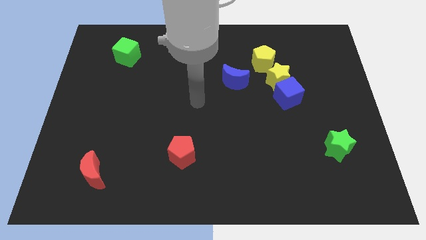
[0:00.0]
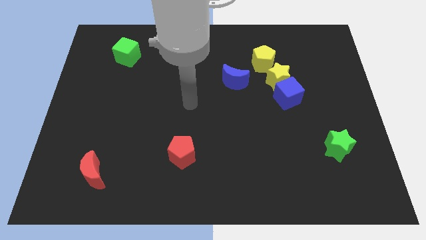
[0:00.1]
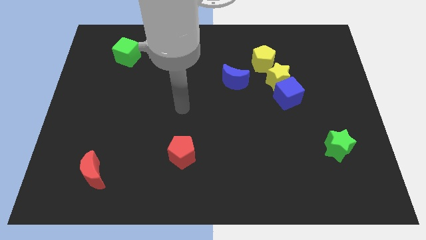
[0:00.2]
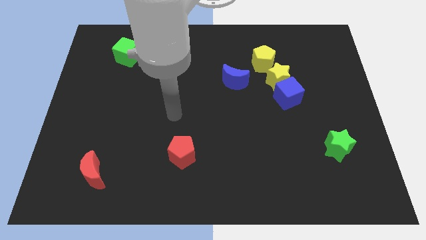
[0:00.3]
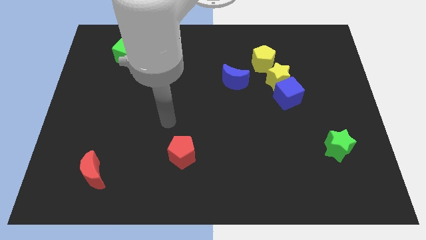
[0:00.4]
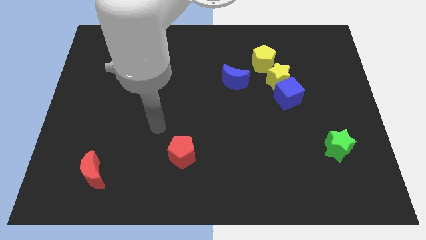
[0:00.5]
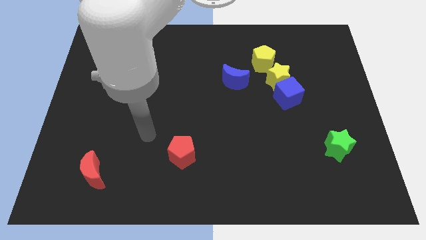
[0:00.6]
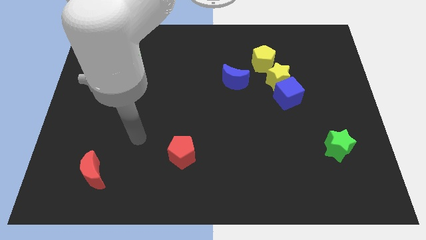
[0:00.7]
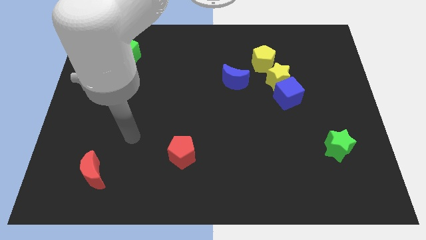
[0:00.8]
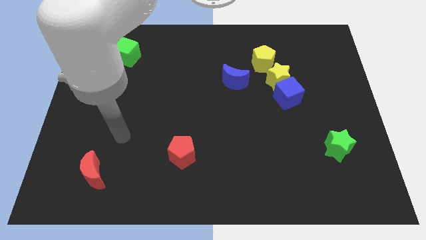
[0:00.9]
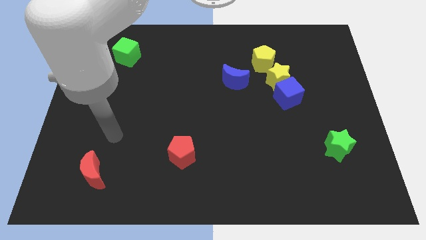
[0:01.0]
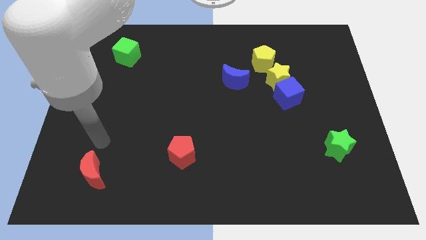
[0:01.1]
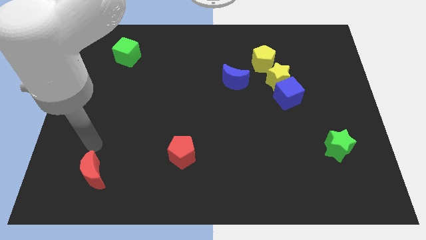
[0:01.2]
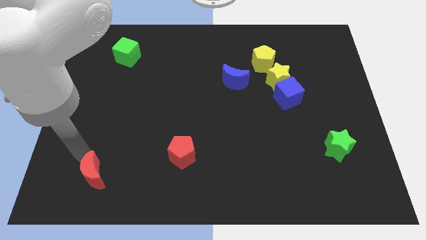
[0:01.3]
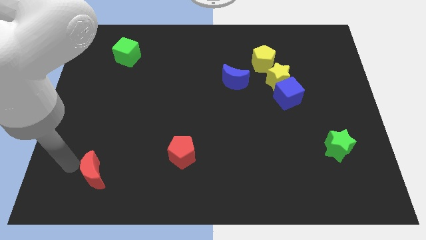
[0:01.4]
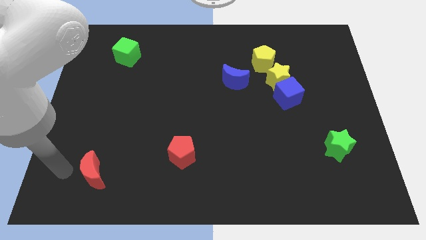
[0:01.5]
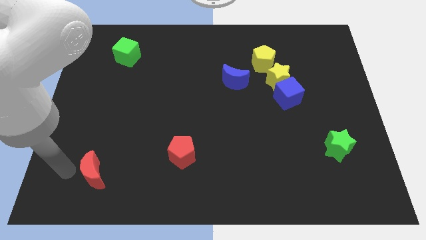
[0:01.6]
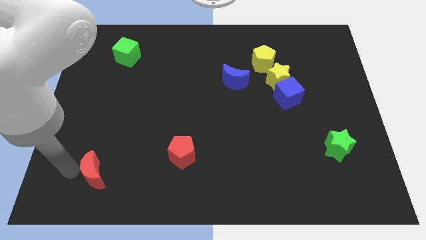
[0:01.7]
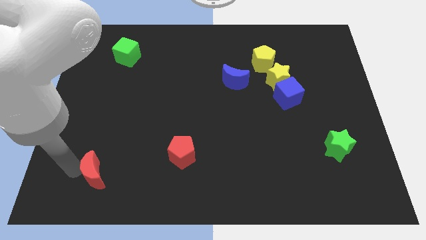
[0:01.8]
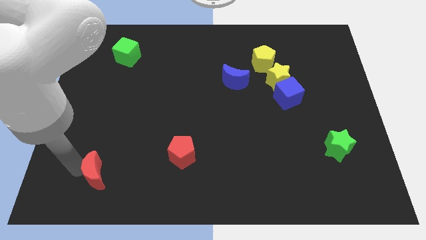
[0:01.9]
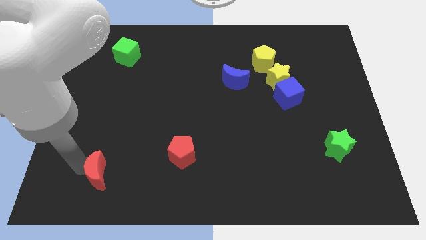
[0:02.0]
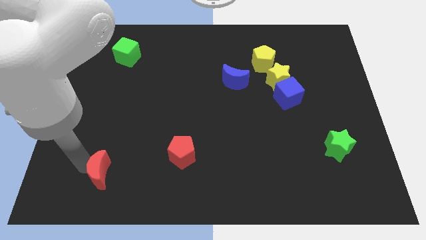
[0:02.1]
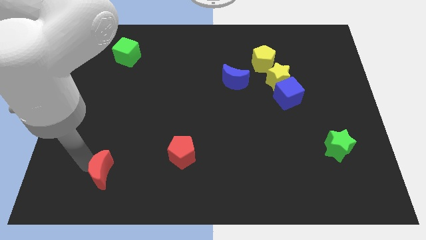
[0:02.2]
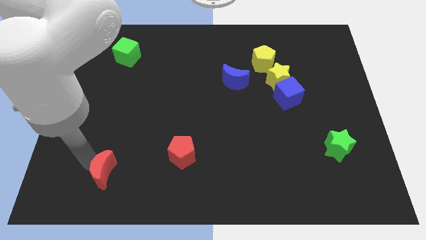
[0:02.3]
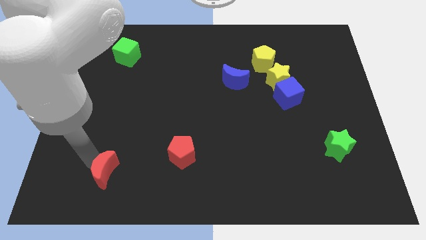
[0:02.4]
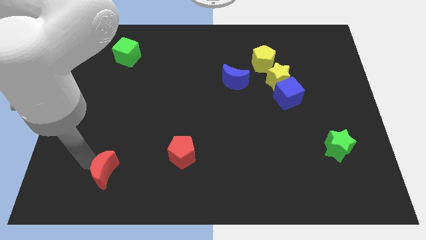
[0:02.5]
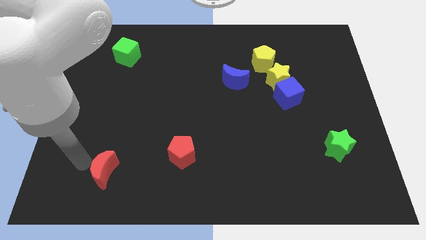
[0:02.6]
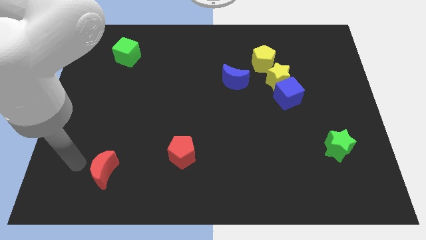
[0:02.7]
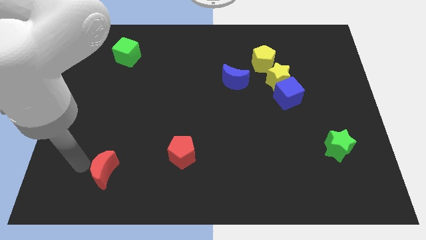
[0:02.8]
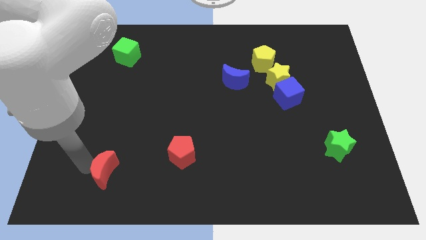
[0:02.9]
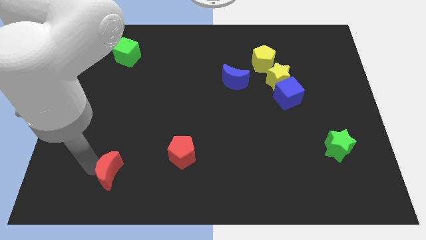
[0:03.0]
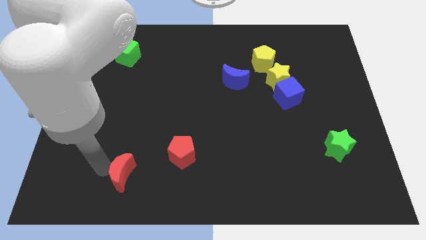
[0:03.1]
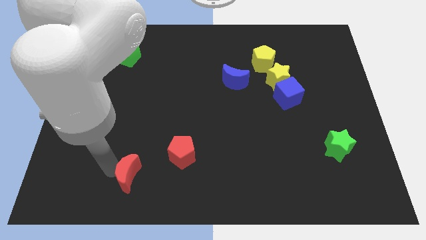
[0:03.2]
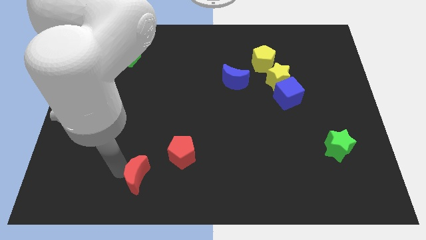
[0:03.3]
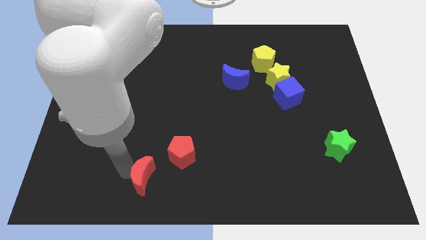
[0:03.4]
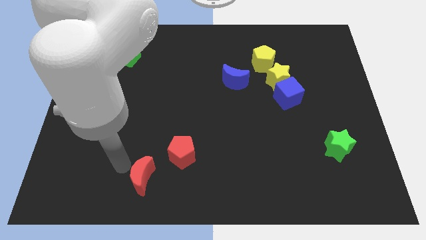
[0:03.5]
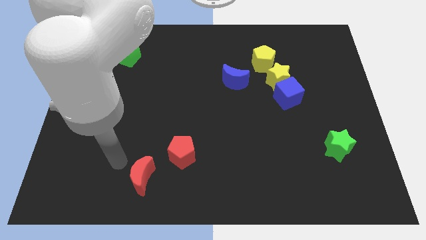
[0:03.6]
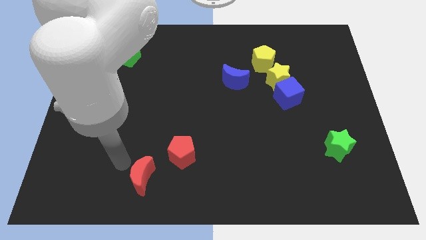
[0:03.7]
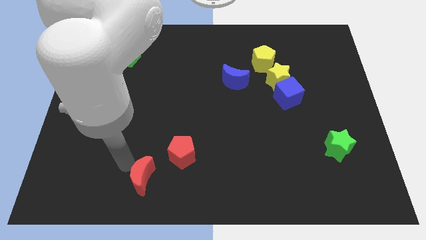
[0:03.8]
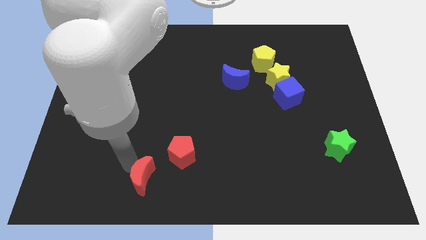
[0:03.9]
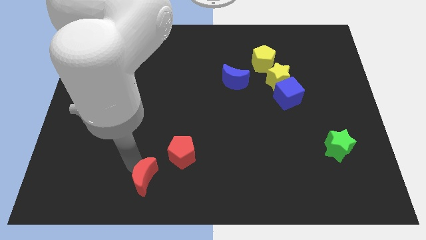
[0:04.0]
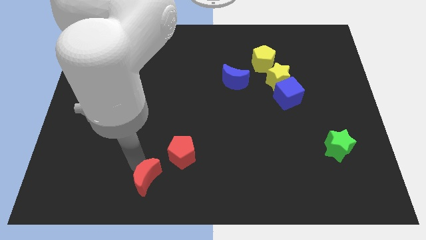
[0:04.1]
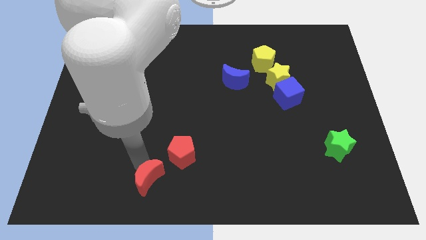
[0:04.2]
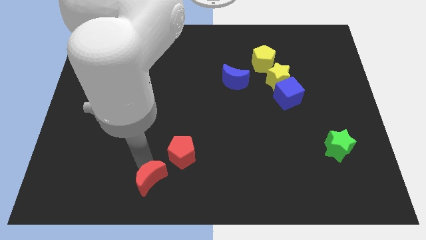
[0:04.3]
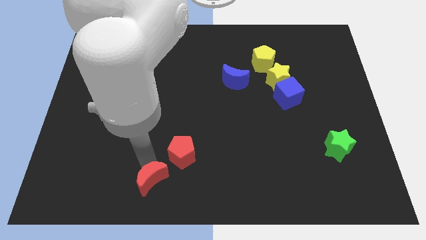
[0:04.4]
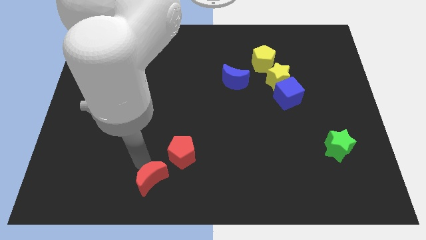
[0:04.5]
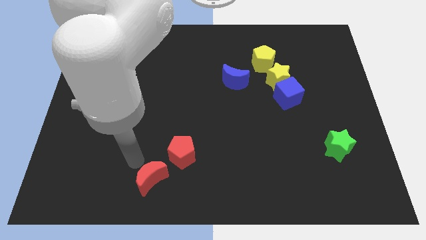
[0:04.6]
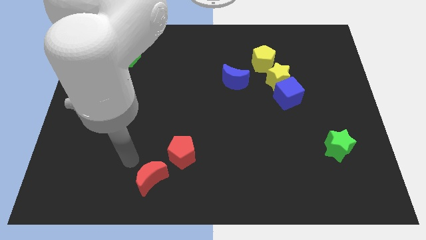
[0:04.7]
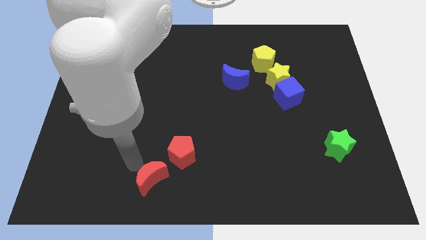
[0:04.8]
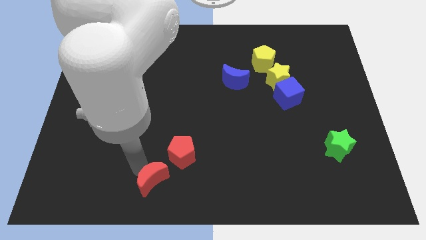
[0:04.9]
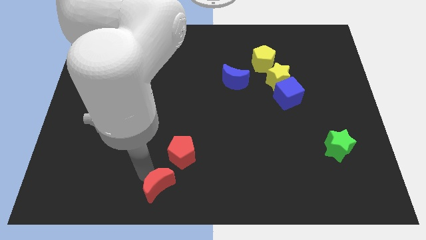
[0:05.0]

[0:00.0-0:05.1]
move the red moon to the bottom side

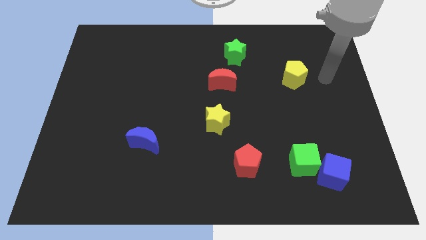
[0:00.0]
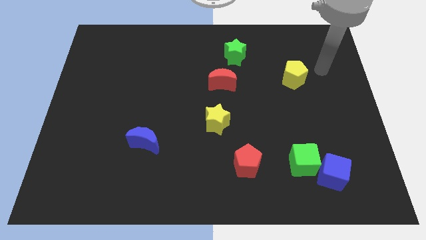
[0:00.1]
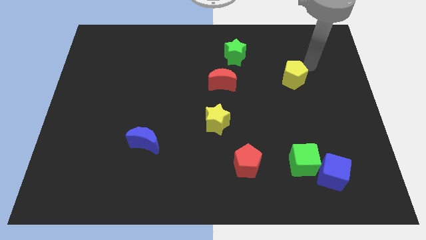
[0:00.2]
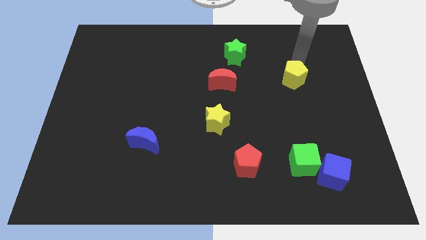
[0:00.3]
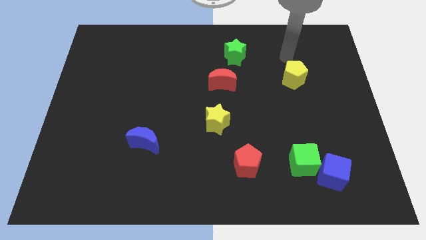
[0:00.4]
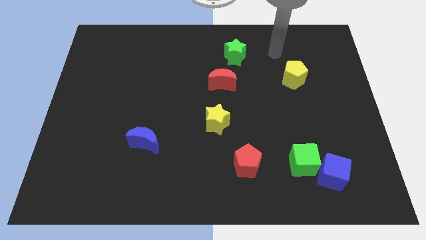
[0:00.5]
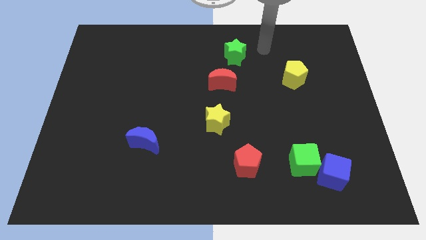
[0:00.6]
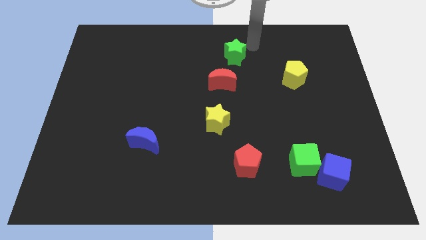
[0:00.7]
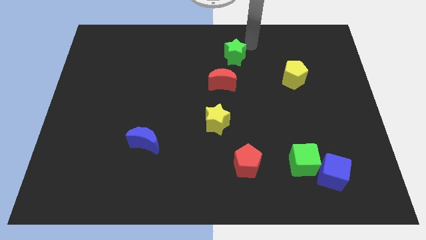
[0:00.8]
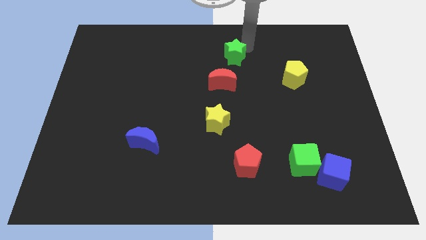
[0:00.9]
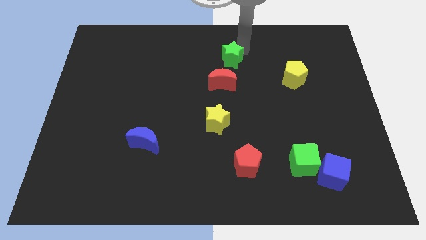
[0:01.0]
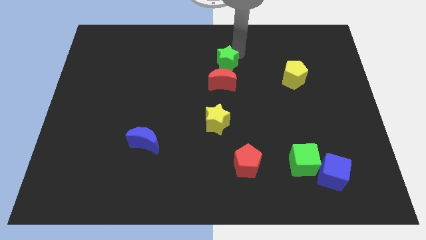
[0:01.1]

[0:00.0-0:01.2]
push the green star to the middle of the board
